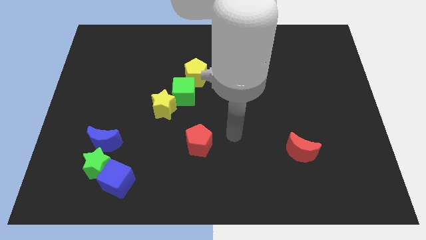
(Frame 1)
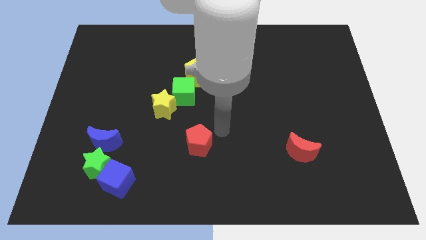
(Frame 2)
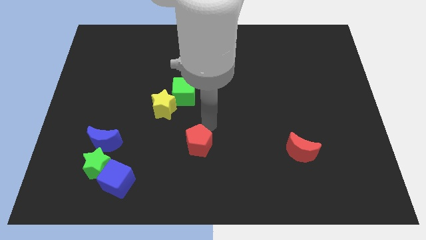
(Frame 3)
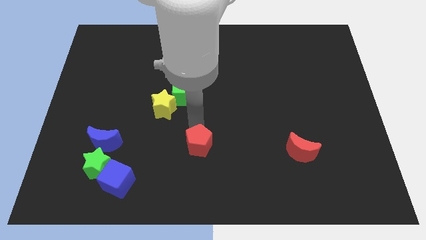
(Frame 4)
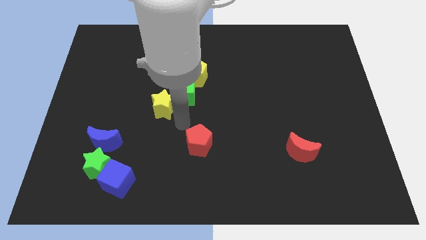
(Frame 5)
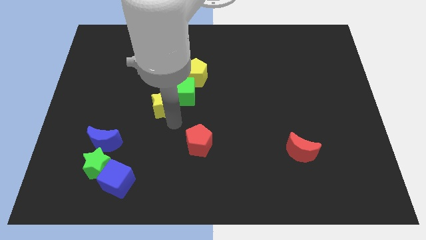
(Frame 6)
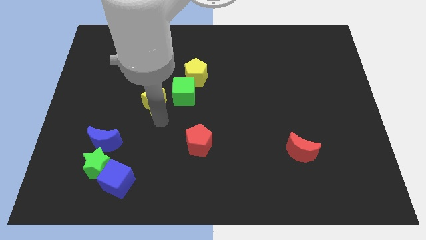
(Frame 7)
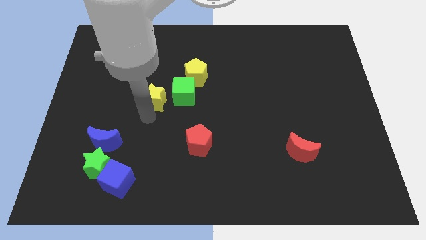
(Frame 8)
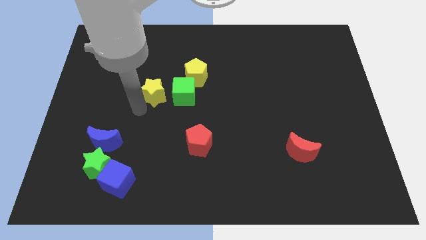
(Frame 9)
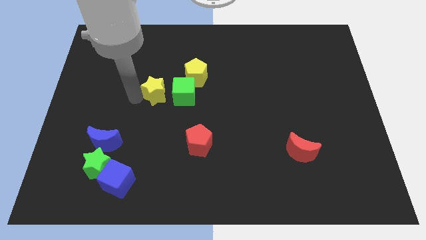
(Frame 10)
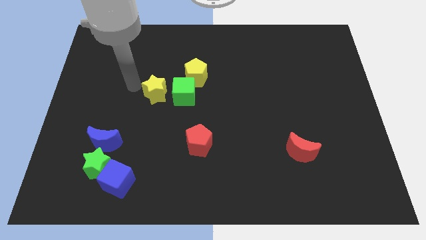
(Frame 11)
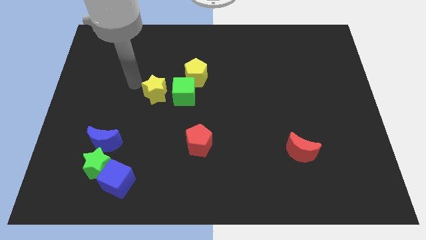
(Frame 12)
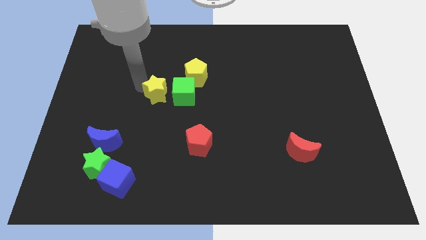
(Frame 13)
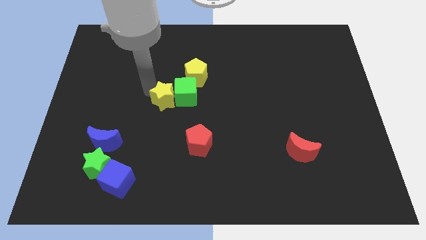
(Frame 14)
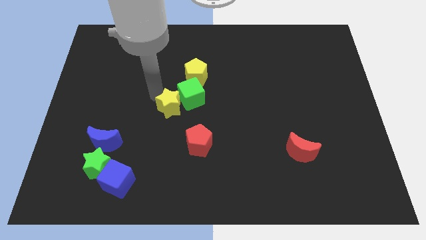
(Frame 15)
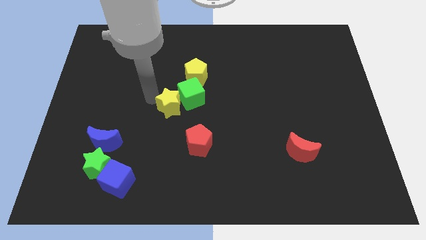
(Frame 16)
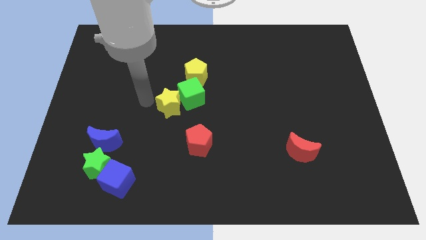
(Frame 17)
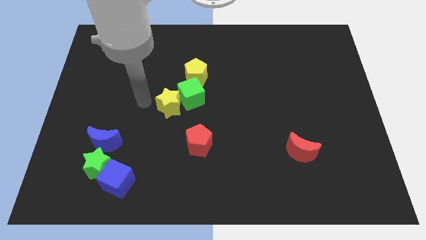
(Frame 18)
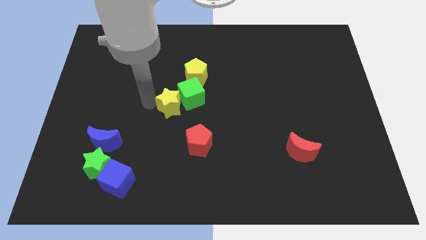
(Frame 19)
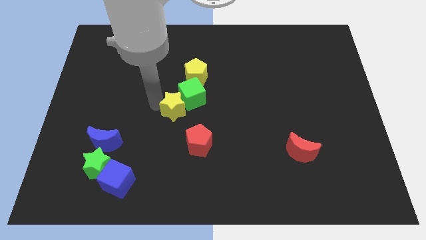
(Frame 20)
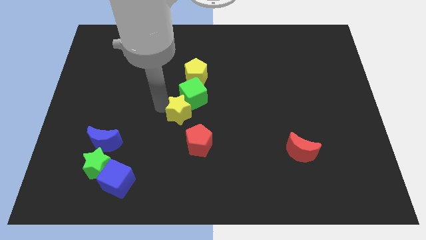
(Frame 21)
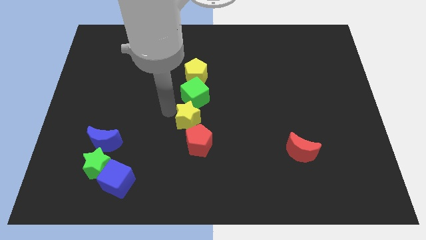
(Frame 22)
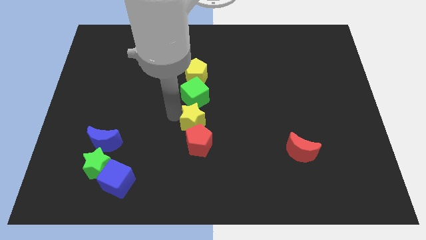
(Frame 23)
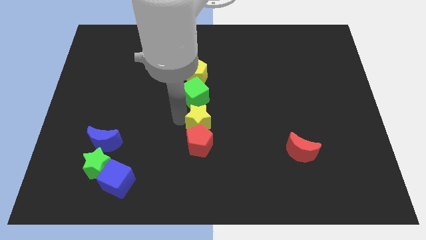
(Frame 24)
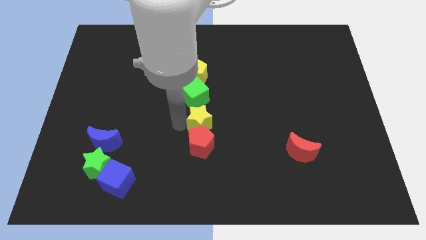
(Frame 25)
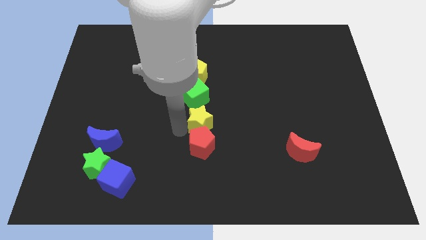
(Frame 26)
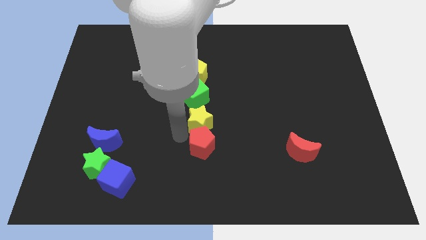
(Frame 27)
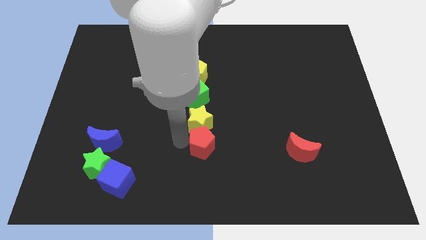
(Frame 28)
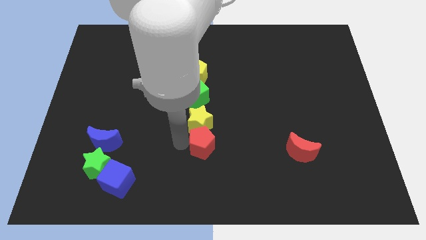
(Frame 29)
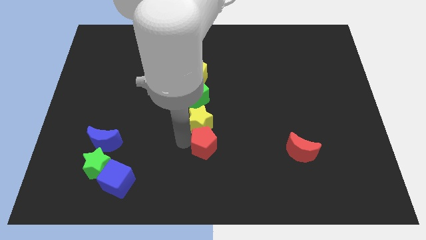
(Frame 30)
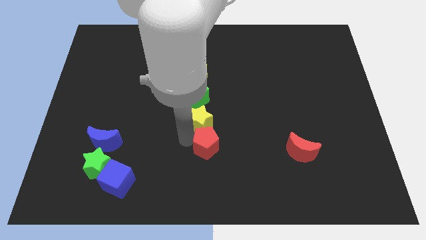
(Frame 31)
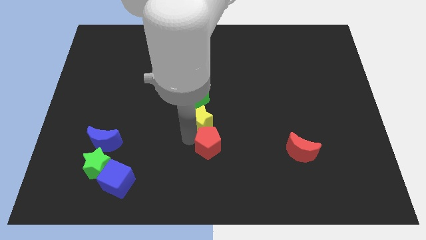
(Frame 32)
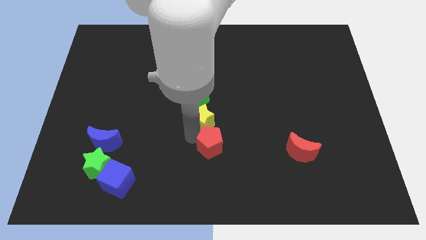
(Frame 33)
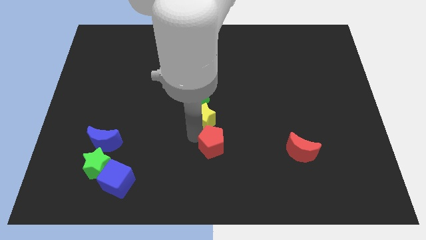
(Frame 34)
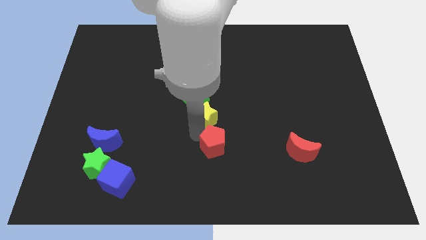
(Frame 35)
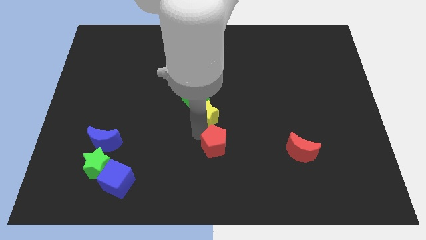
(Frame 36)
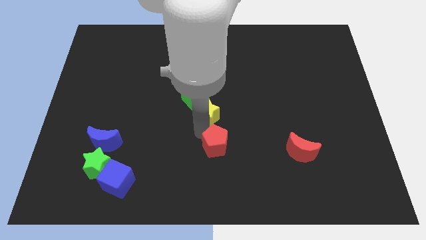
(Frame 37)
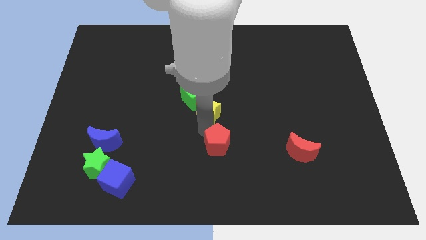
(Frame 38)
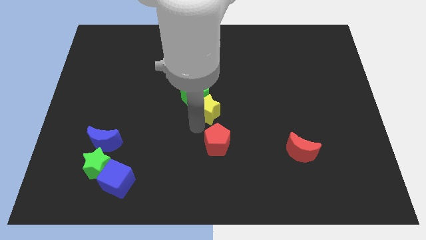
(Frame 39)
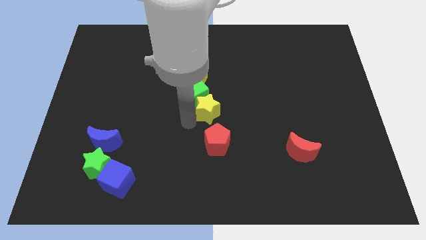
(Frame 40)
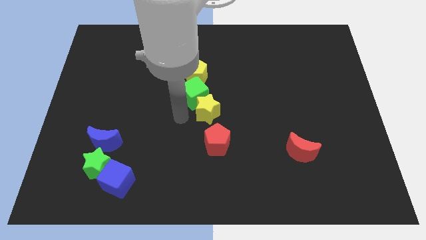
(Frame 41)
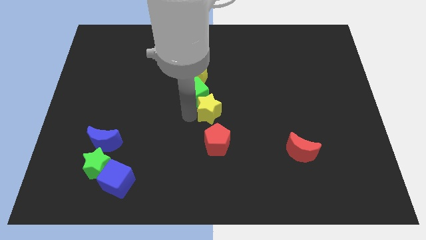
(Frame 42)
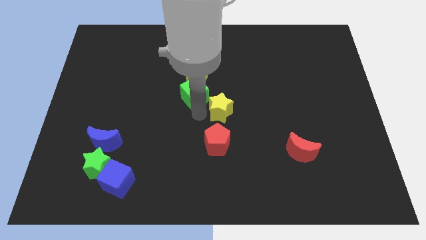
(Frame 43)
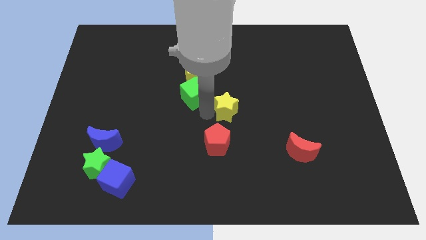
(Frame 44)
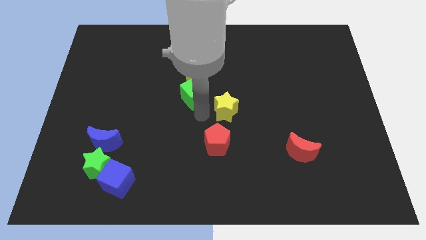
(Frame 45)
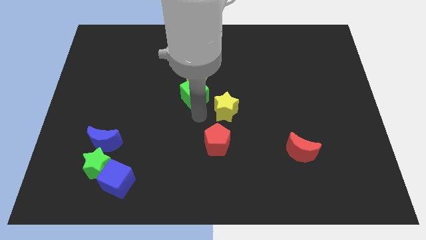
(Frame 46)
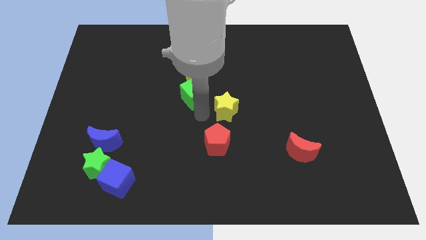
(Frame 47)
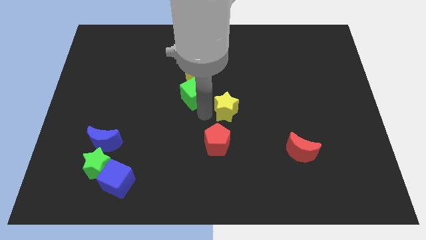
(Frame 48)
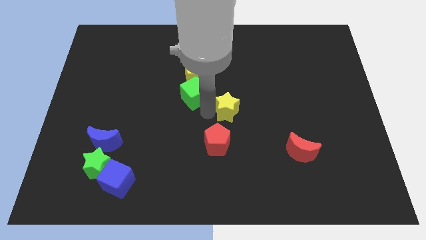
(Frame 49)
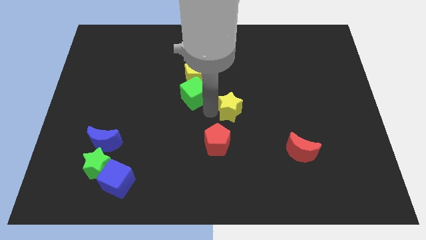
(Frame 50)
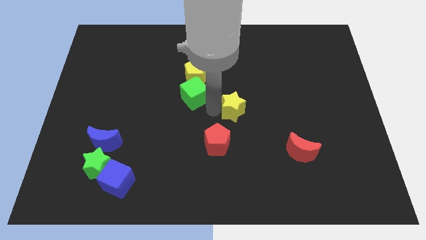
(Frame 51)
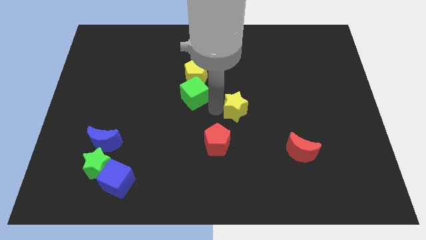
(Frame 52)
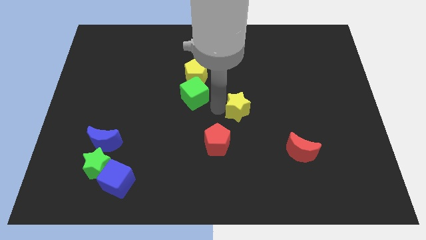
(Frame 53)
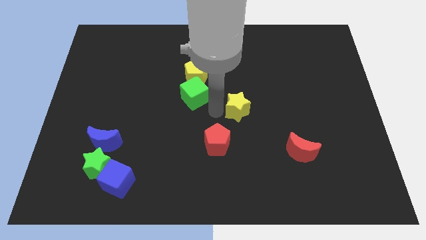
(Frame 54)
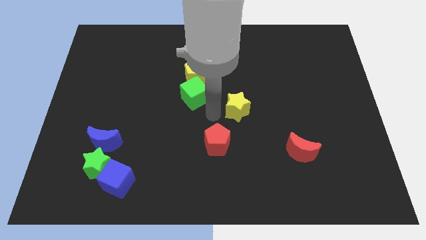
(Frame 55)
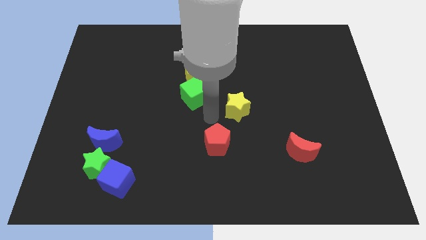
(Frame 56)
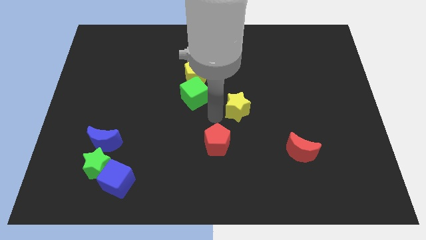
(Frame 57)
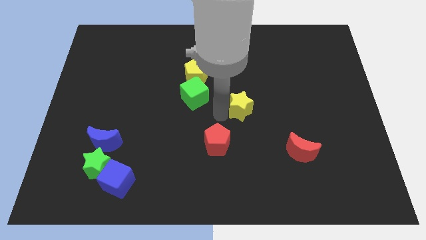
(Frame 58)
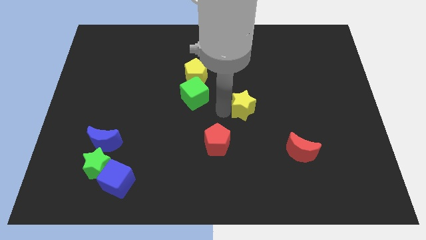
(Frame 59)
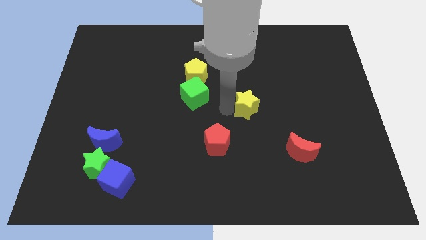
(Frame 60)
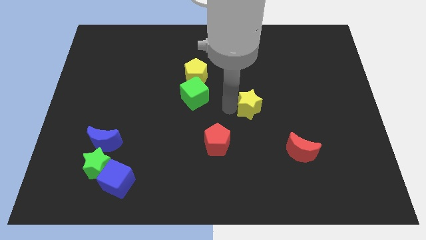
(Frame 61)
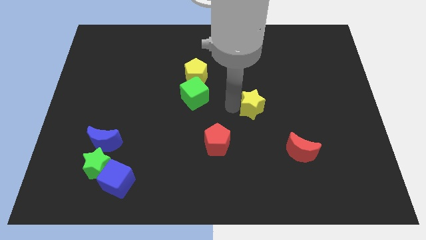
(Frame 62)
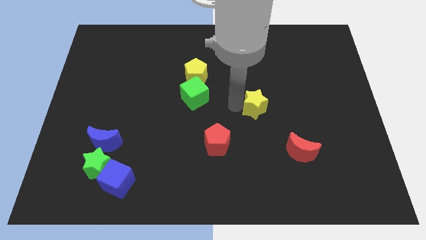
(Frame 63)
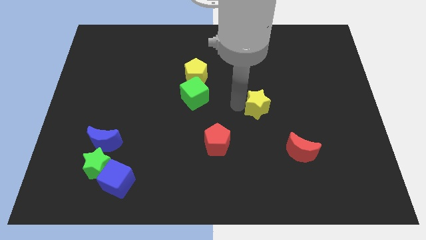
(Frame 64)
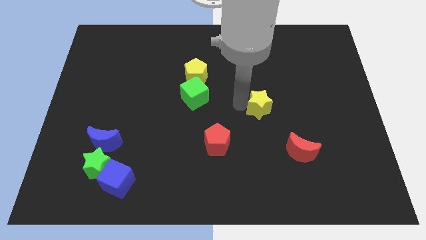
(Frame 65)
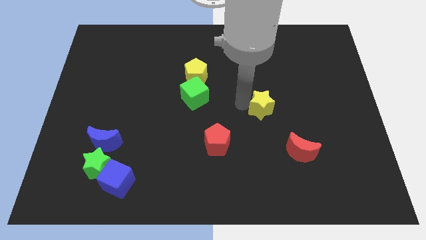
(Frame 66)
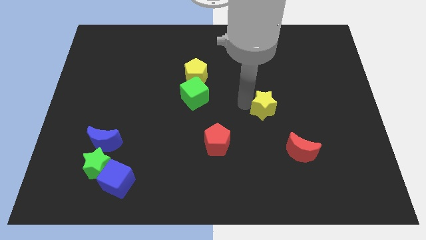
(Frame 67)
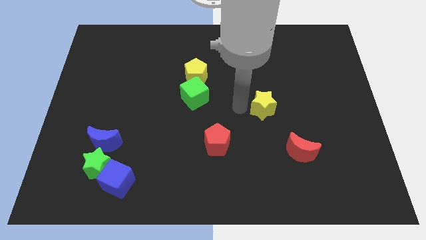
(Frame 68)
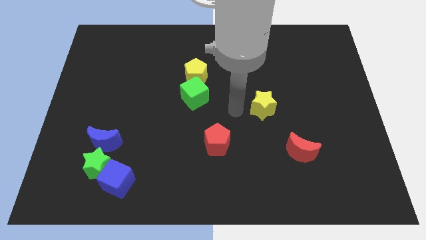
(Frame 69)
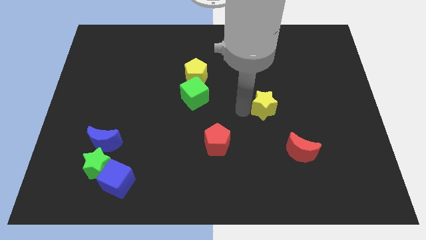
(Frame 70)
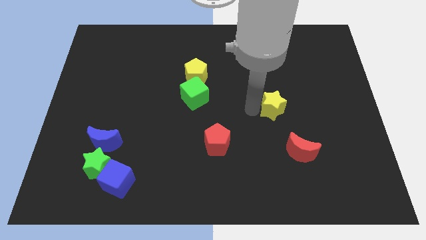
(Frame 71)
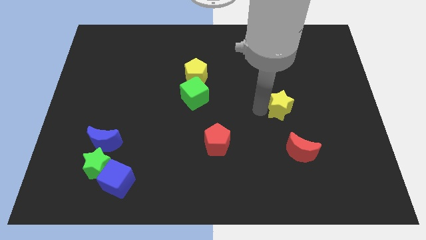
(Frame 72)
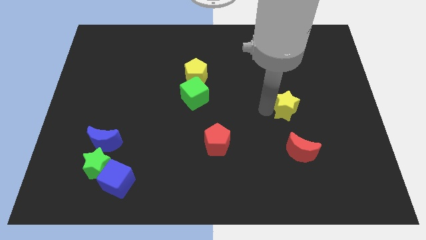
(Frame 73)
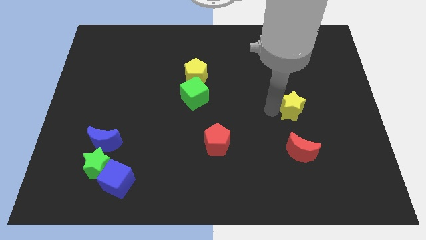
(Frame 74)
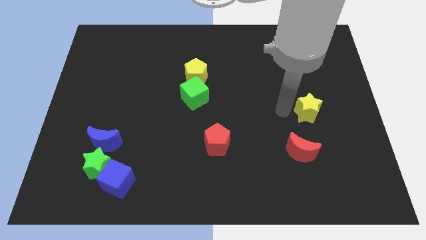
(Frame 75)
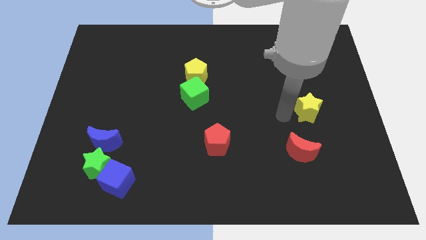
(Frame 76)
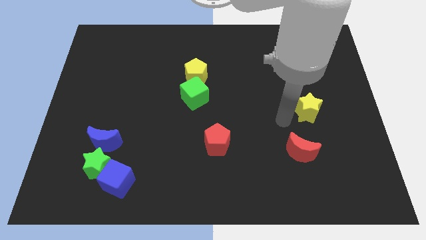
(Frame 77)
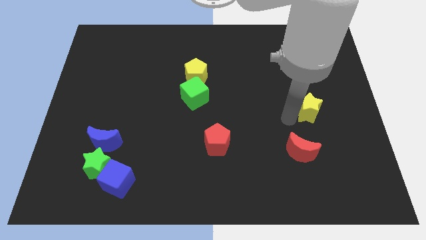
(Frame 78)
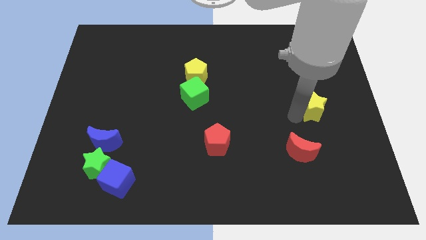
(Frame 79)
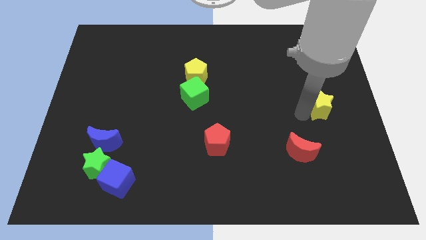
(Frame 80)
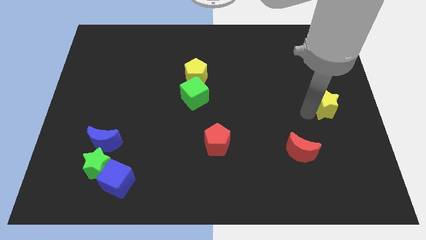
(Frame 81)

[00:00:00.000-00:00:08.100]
move the yellow star to the center right
